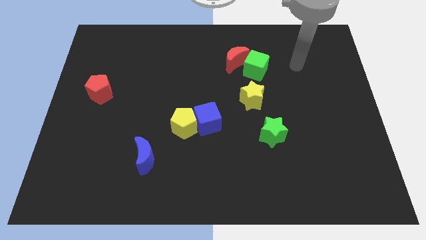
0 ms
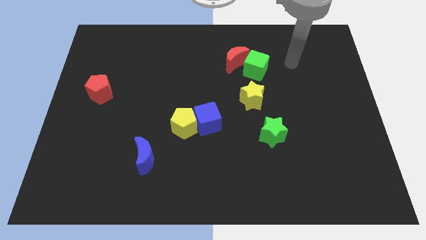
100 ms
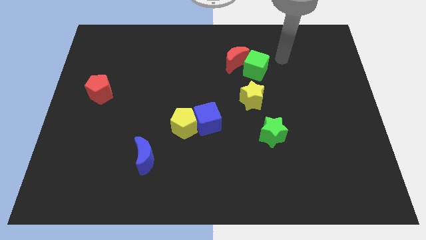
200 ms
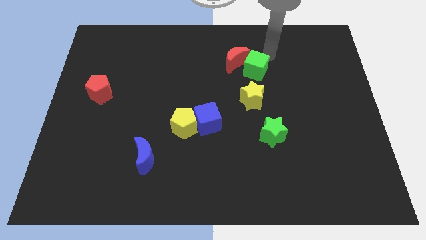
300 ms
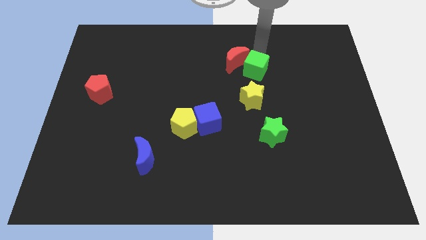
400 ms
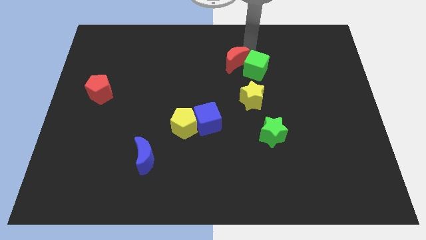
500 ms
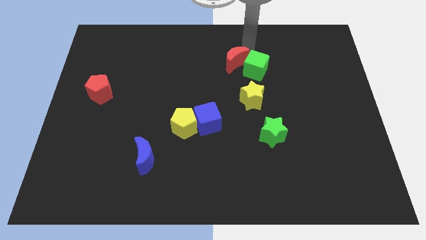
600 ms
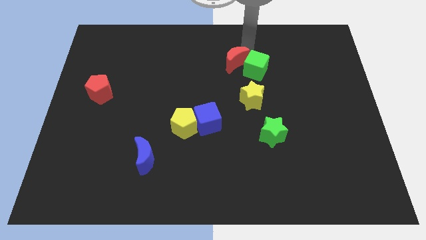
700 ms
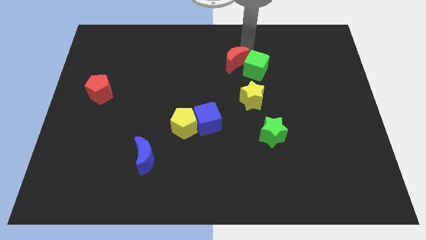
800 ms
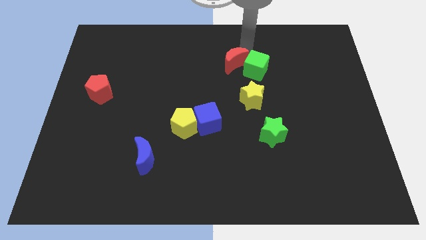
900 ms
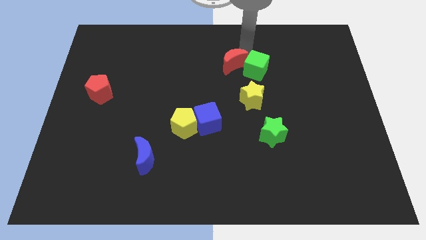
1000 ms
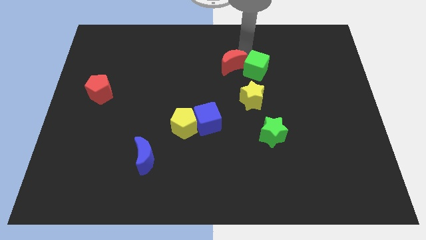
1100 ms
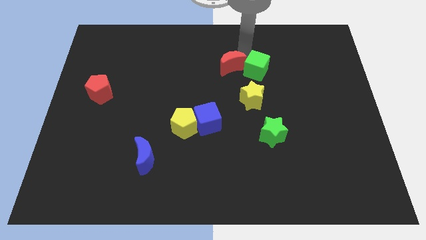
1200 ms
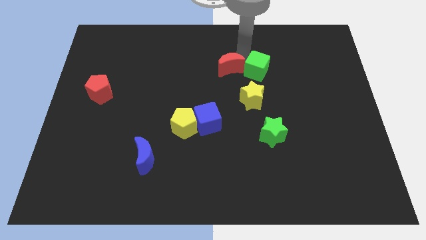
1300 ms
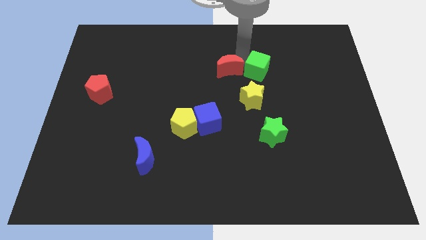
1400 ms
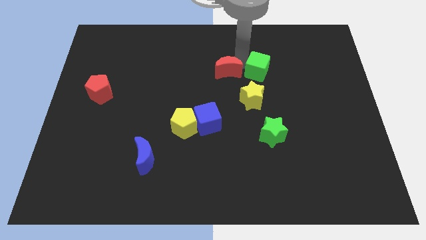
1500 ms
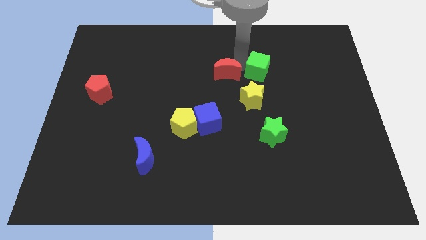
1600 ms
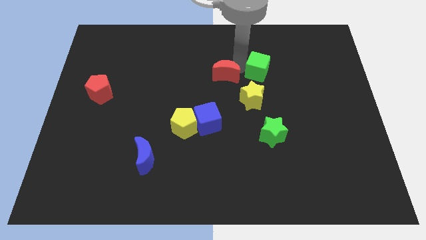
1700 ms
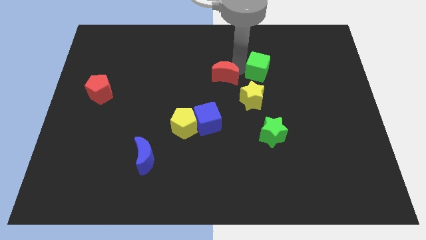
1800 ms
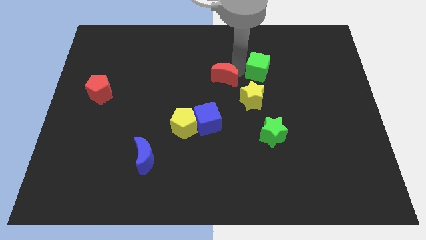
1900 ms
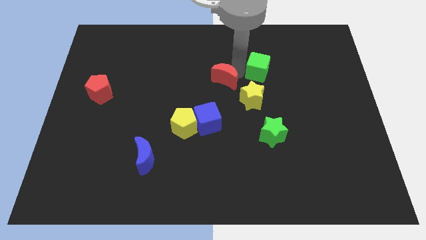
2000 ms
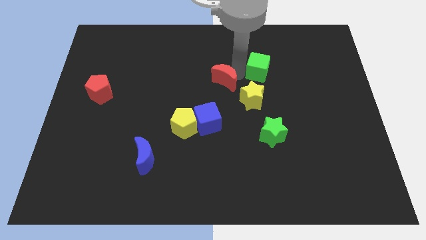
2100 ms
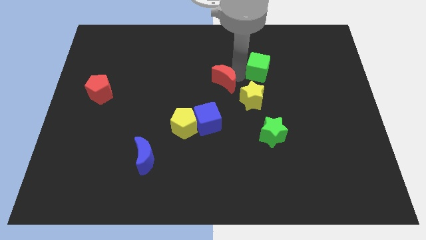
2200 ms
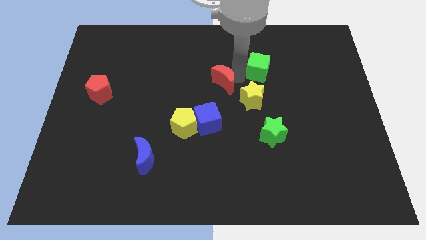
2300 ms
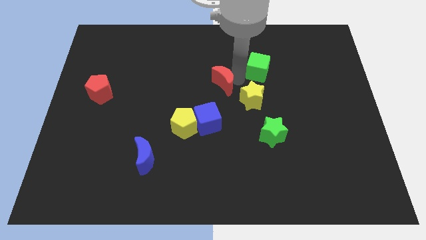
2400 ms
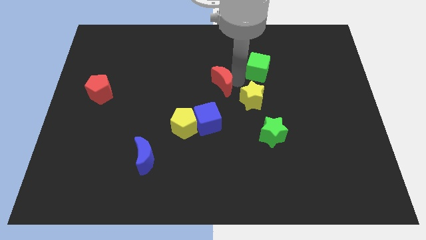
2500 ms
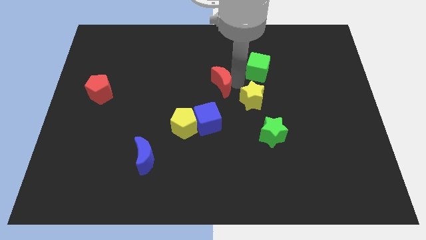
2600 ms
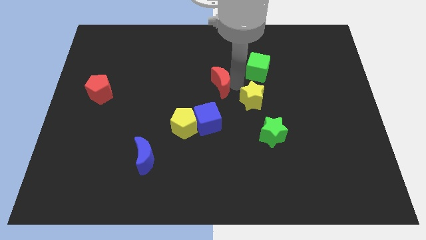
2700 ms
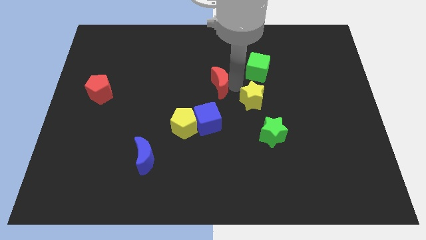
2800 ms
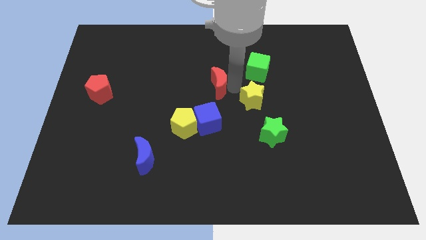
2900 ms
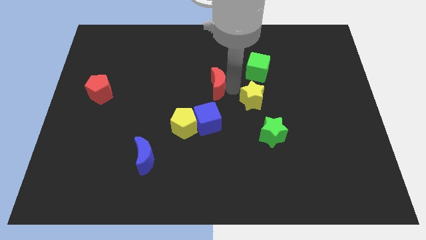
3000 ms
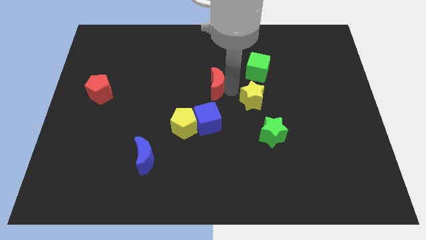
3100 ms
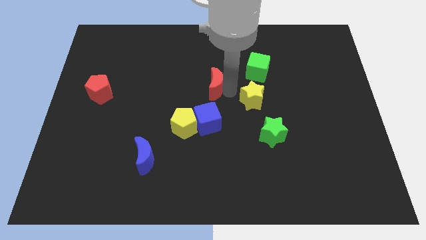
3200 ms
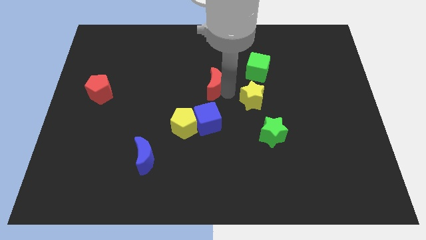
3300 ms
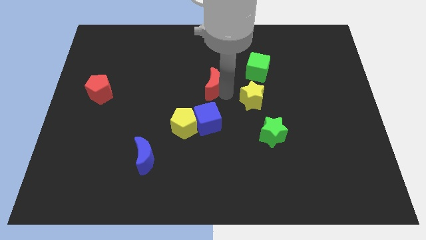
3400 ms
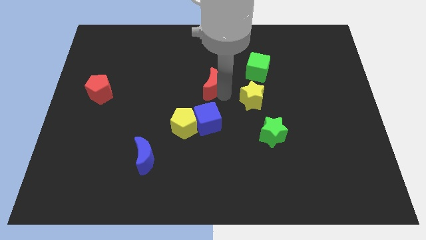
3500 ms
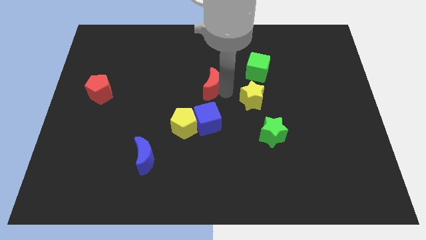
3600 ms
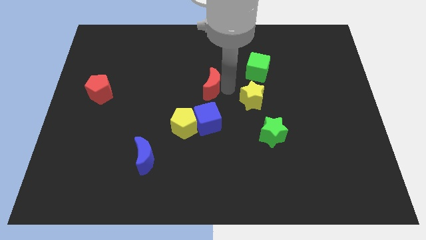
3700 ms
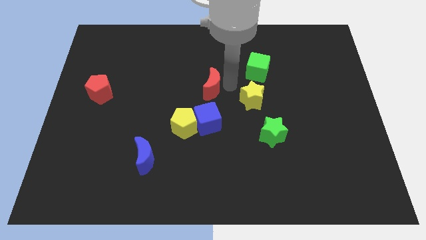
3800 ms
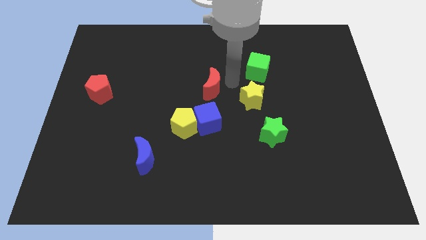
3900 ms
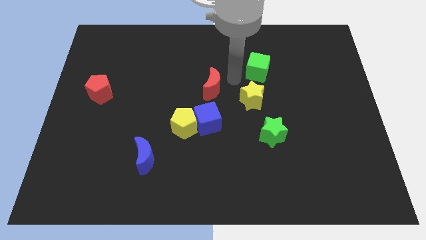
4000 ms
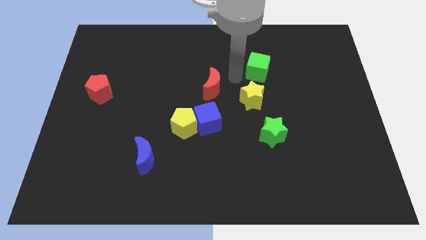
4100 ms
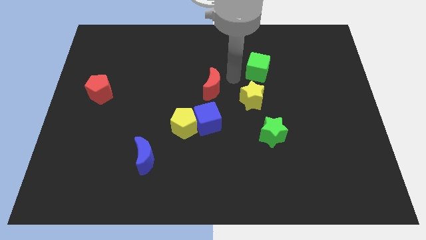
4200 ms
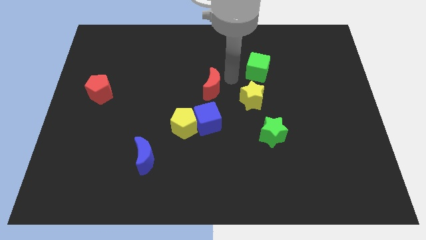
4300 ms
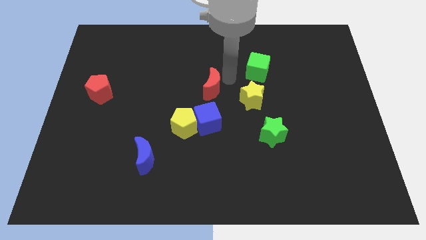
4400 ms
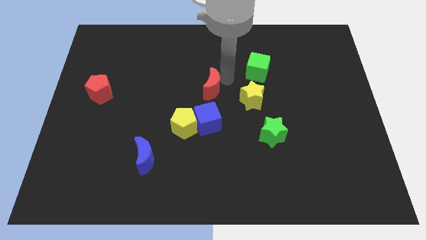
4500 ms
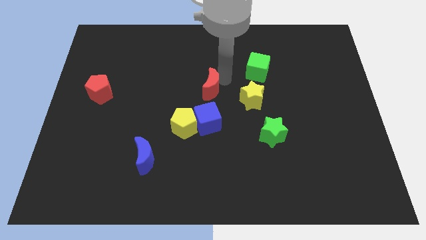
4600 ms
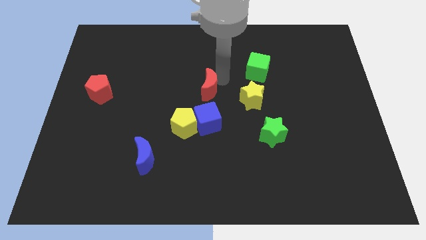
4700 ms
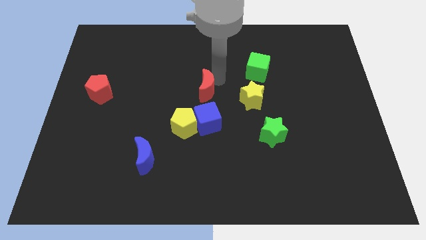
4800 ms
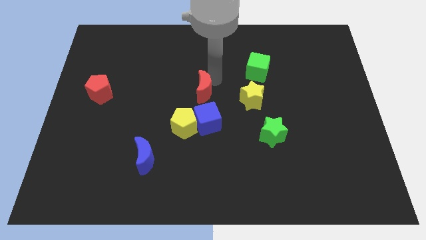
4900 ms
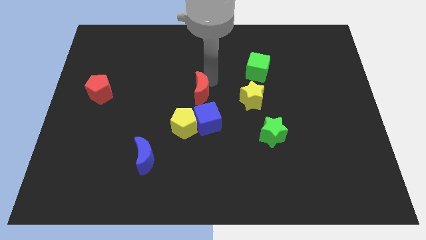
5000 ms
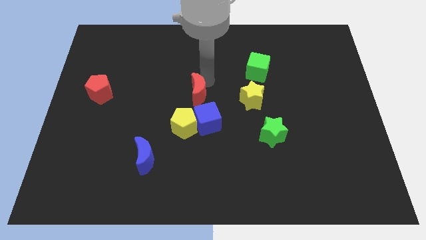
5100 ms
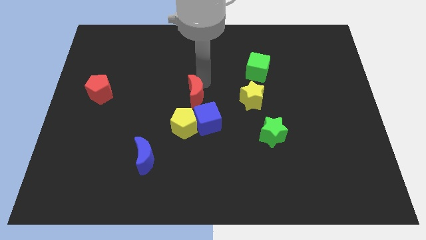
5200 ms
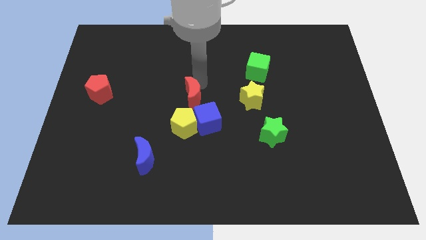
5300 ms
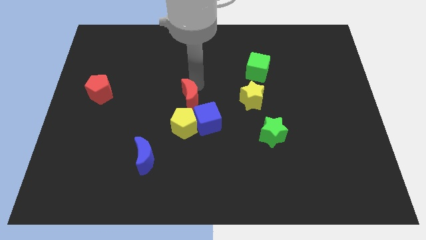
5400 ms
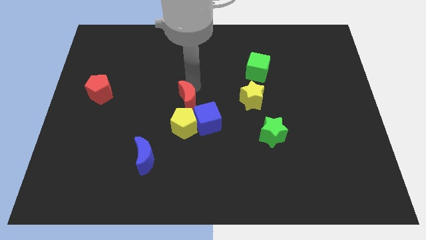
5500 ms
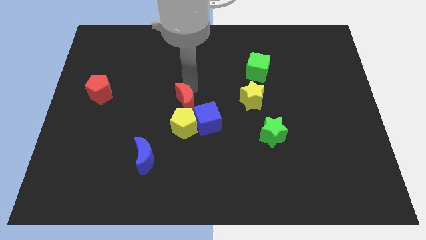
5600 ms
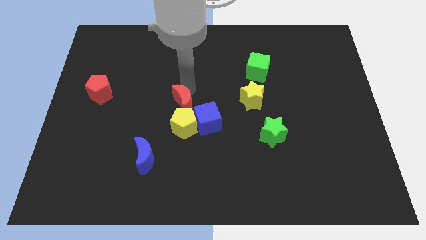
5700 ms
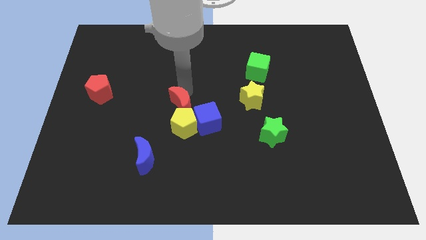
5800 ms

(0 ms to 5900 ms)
slide the red moon towards the yellow pentagon

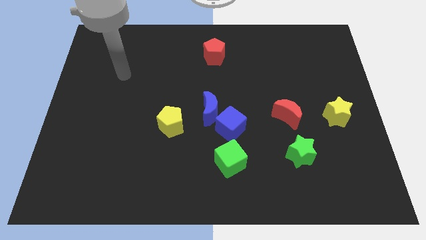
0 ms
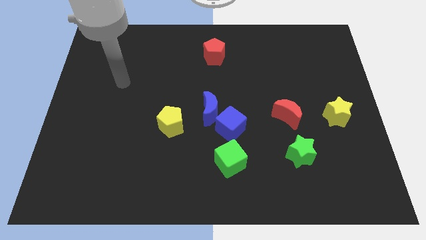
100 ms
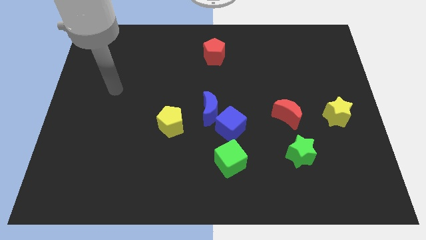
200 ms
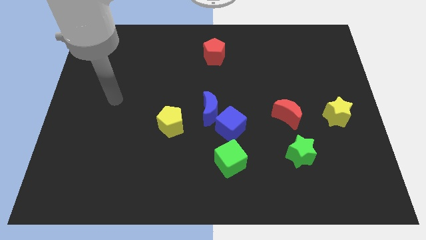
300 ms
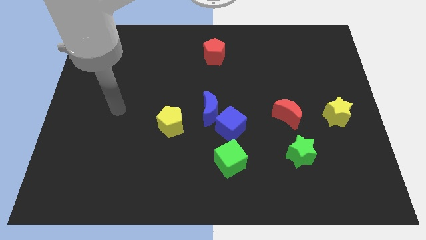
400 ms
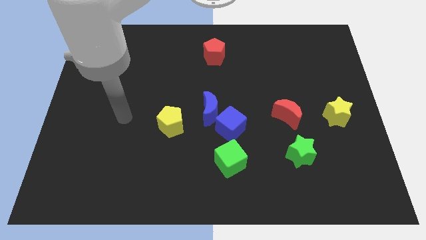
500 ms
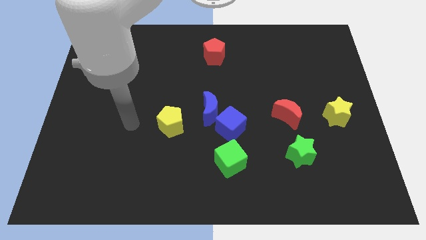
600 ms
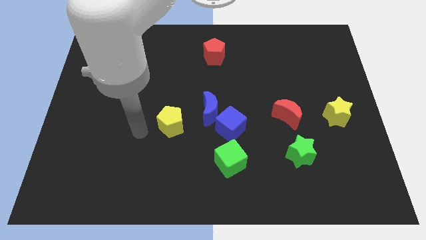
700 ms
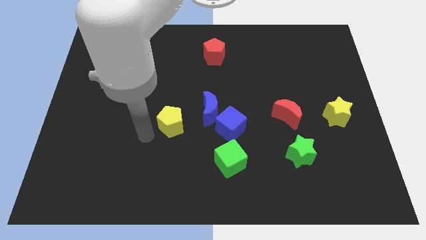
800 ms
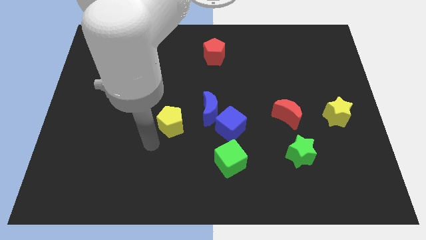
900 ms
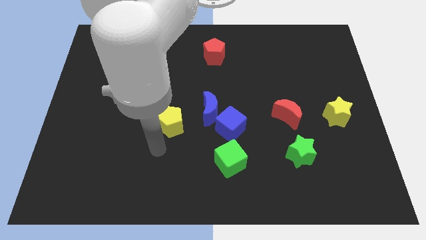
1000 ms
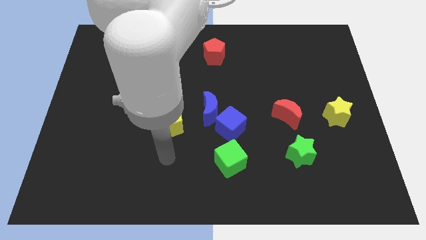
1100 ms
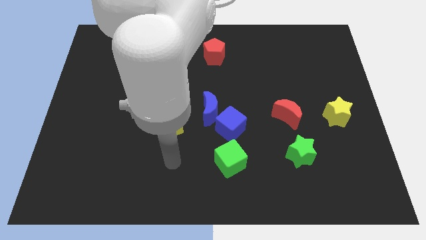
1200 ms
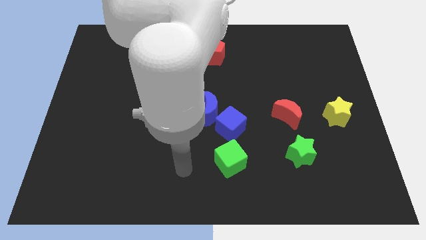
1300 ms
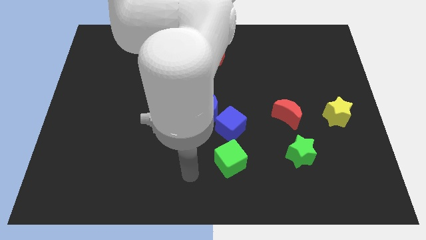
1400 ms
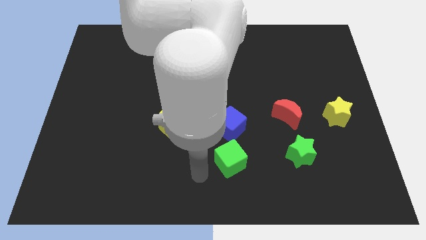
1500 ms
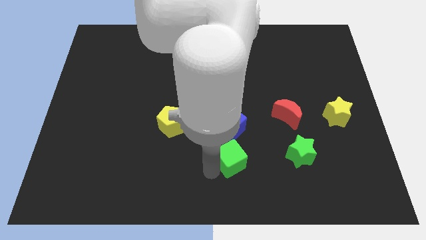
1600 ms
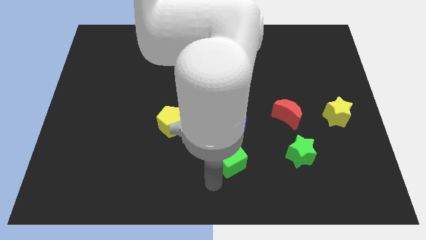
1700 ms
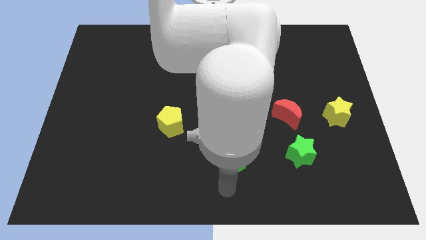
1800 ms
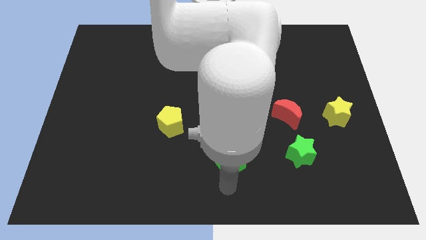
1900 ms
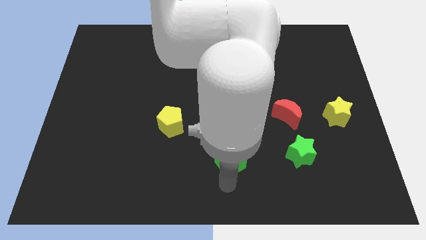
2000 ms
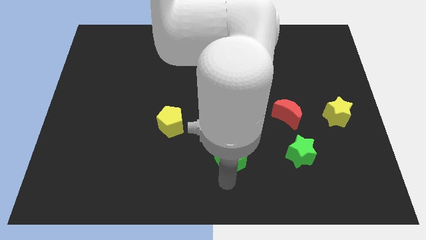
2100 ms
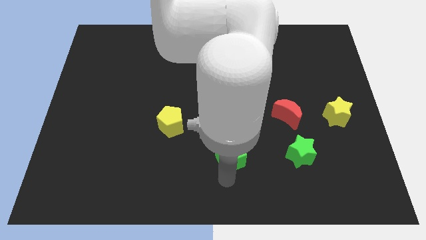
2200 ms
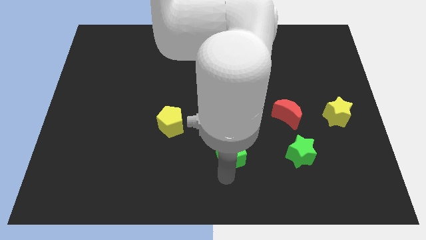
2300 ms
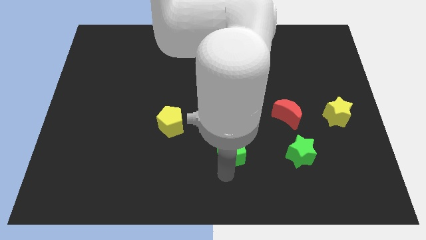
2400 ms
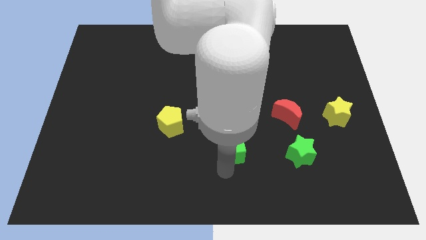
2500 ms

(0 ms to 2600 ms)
put the green cube close to the blue cube
